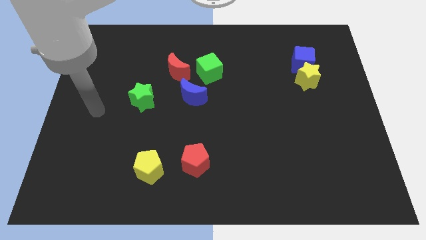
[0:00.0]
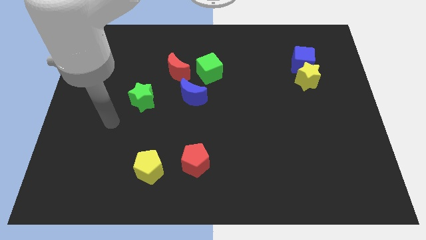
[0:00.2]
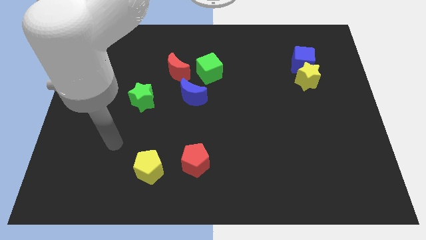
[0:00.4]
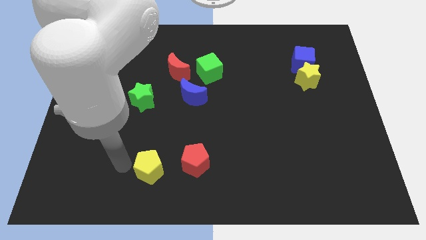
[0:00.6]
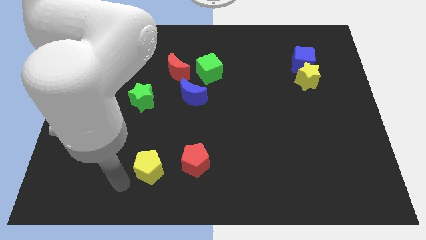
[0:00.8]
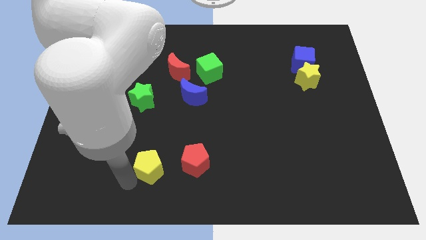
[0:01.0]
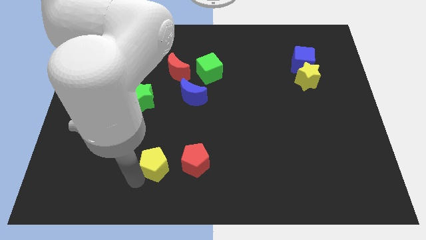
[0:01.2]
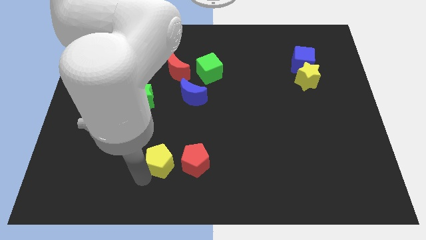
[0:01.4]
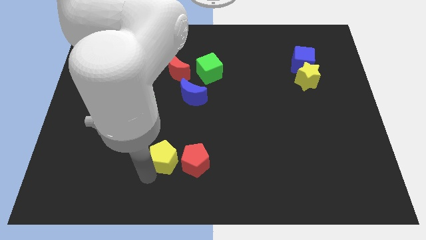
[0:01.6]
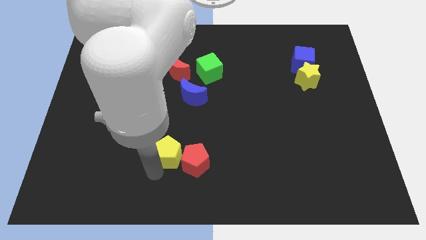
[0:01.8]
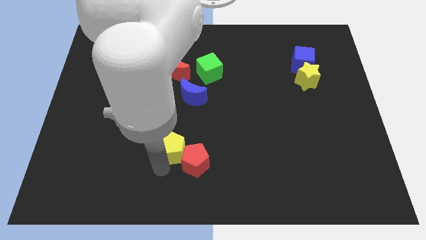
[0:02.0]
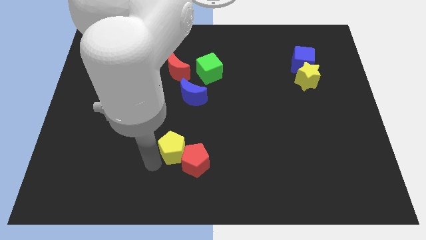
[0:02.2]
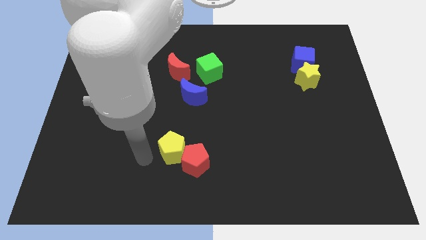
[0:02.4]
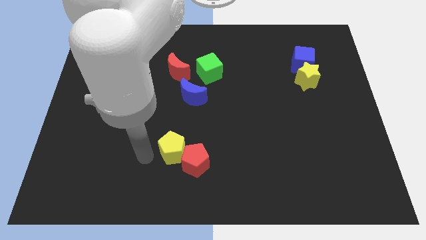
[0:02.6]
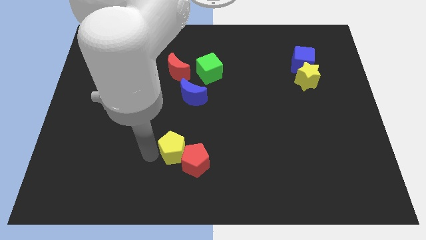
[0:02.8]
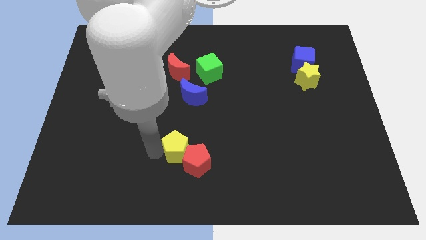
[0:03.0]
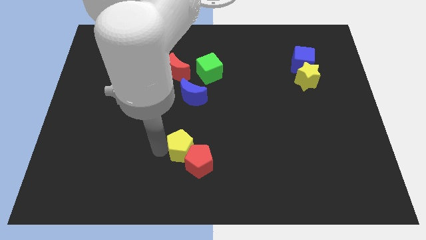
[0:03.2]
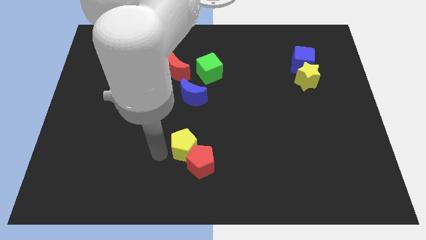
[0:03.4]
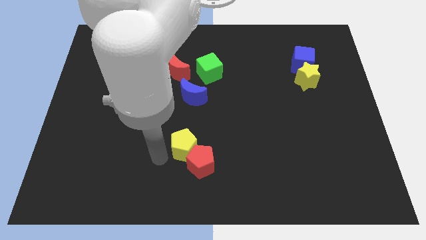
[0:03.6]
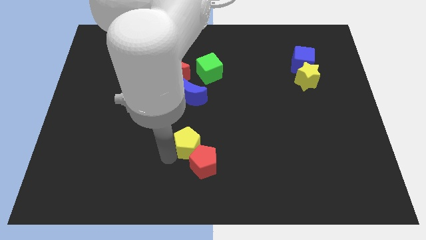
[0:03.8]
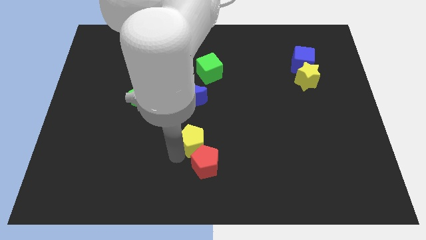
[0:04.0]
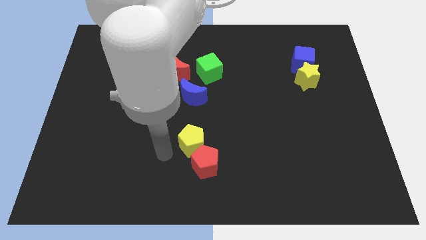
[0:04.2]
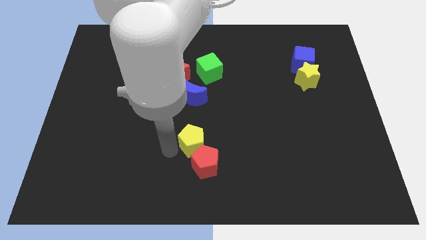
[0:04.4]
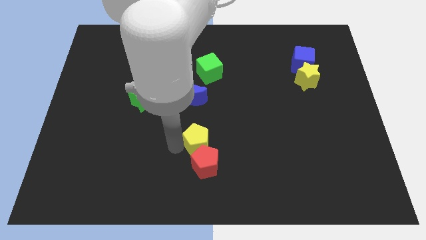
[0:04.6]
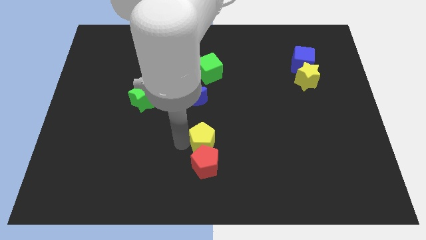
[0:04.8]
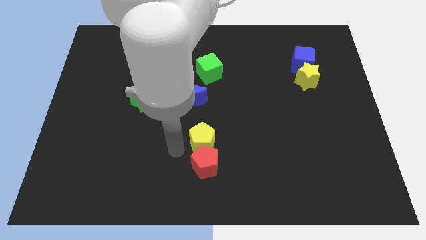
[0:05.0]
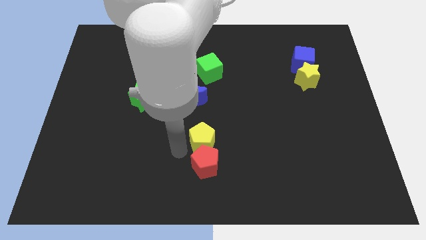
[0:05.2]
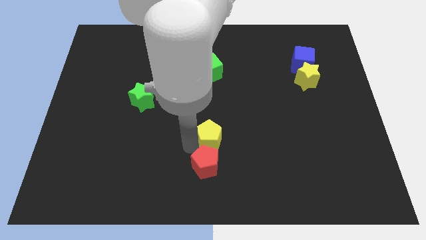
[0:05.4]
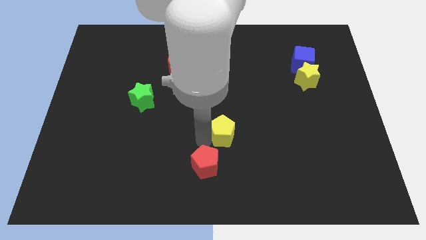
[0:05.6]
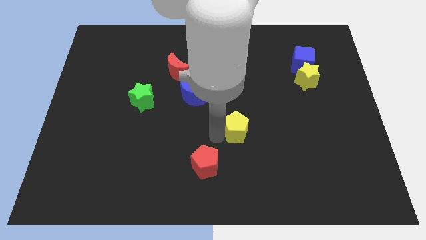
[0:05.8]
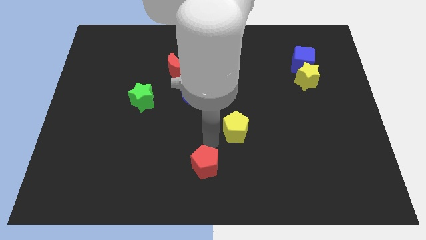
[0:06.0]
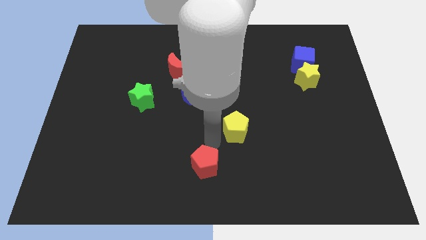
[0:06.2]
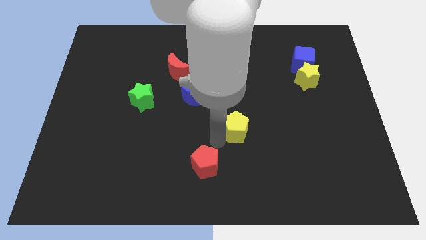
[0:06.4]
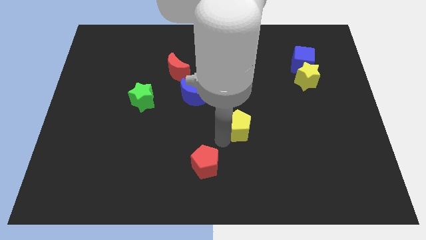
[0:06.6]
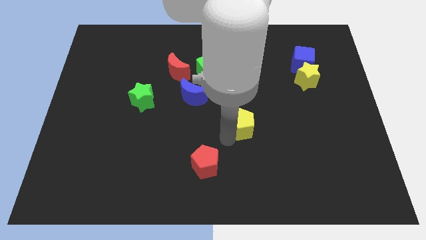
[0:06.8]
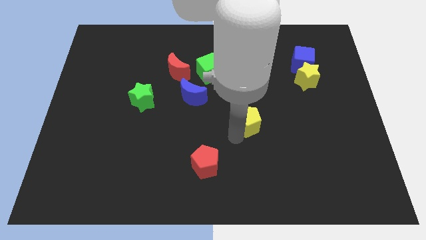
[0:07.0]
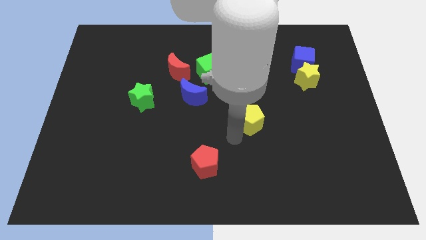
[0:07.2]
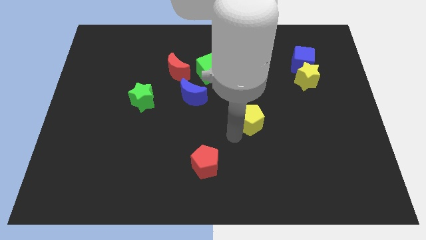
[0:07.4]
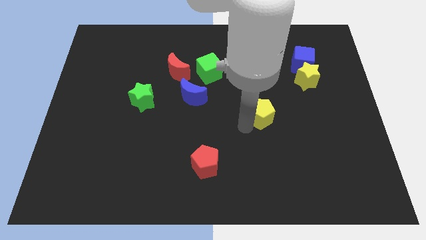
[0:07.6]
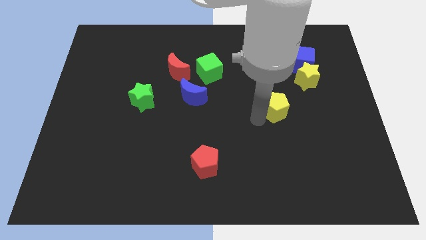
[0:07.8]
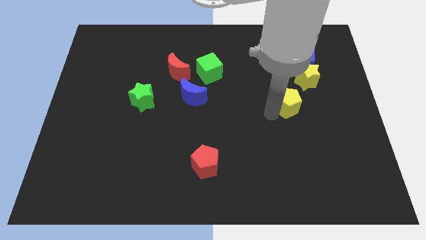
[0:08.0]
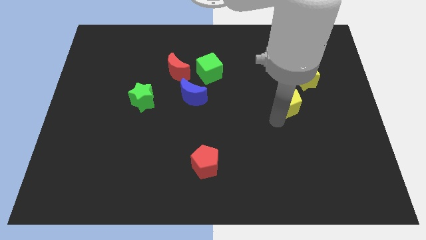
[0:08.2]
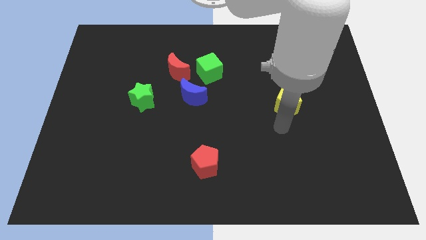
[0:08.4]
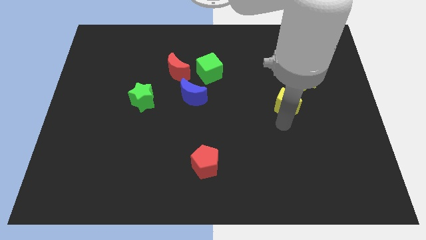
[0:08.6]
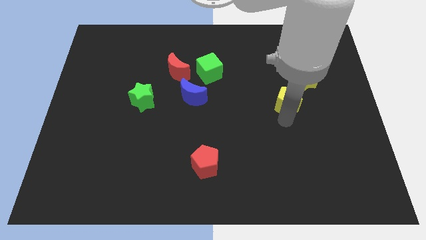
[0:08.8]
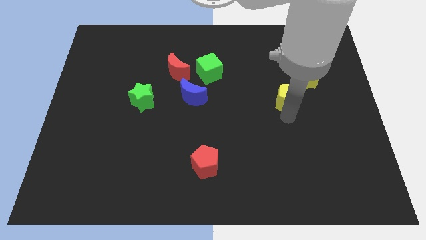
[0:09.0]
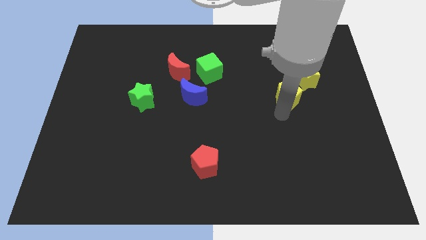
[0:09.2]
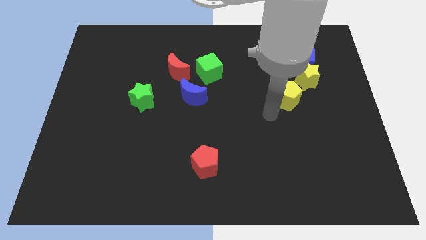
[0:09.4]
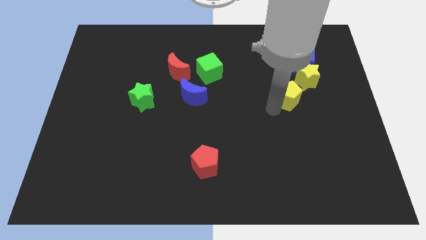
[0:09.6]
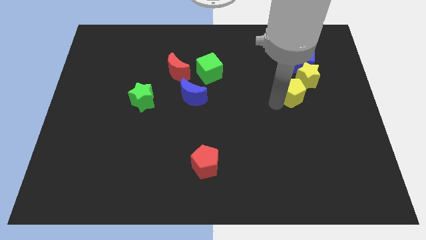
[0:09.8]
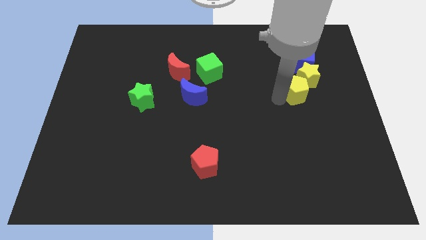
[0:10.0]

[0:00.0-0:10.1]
put the yellow pentagon next to the yellow star

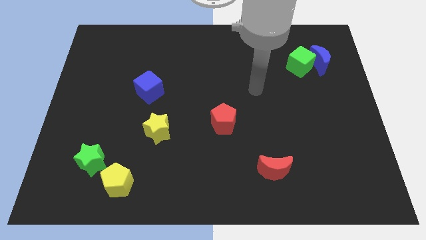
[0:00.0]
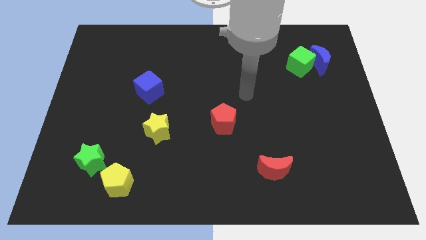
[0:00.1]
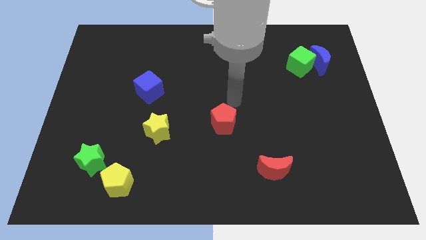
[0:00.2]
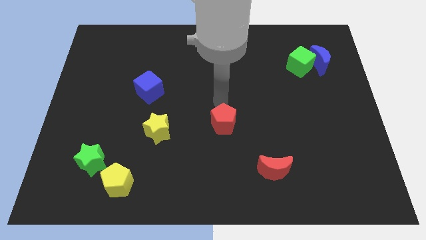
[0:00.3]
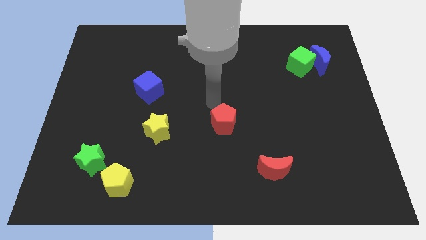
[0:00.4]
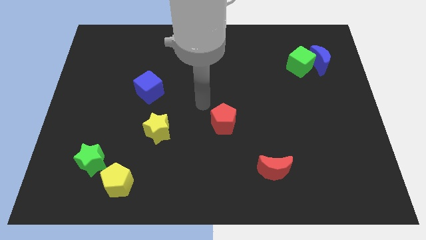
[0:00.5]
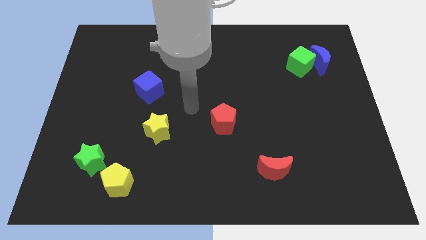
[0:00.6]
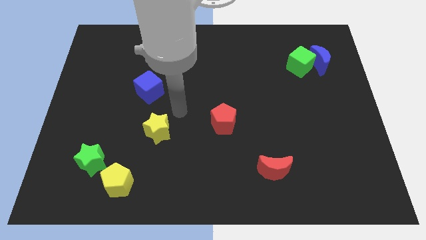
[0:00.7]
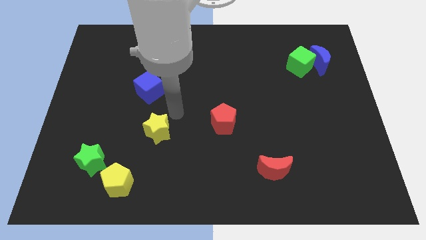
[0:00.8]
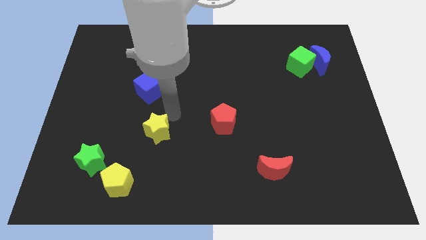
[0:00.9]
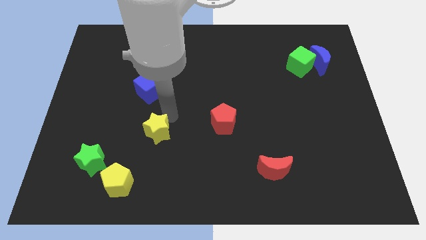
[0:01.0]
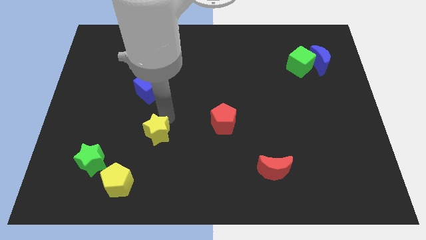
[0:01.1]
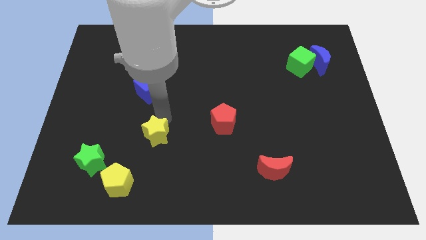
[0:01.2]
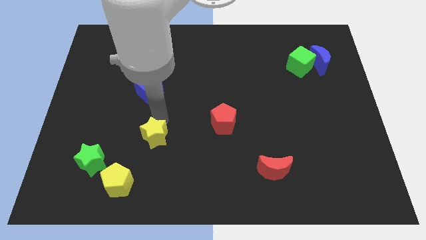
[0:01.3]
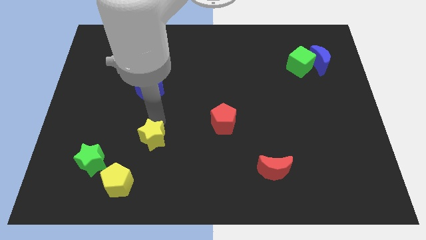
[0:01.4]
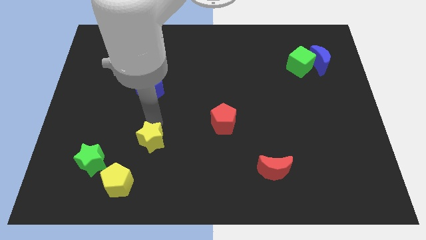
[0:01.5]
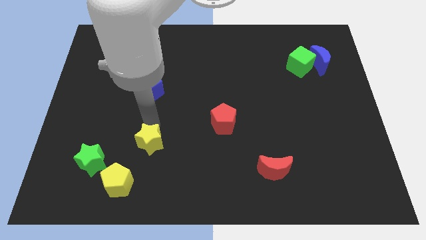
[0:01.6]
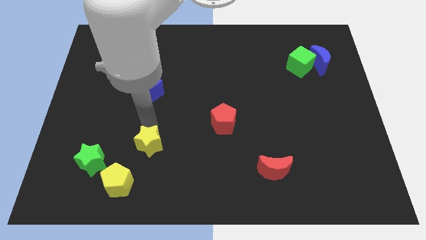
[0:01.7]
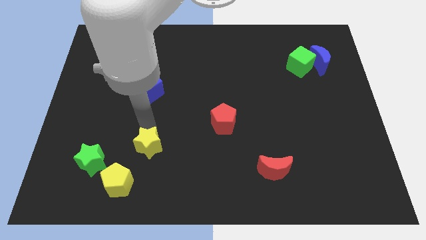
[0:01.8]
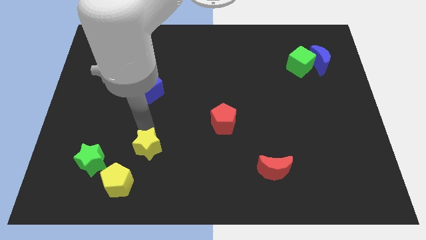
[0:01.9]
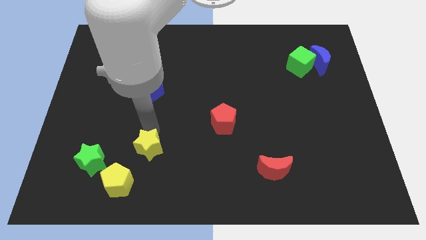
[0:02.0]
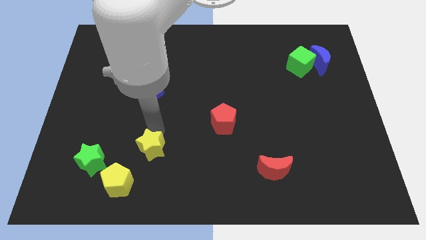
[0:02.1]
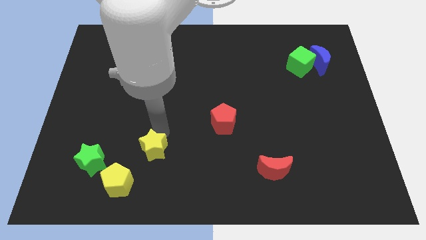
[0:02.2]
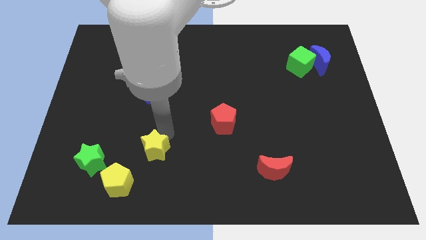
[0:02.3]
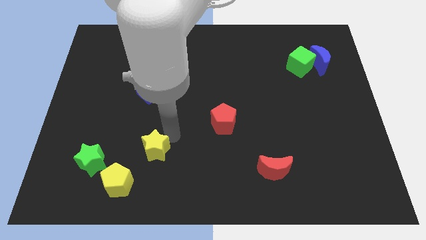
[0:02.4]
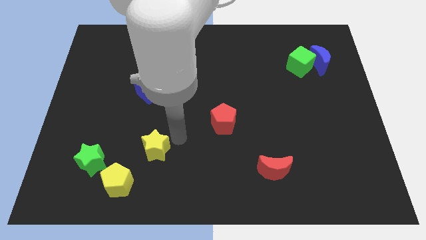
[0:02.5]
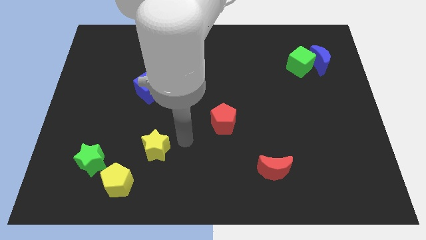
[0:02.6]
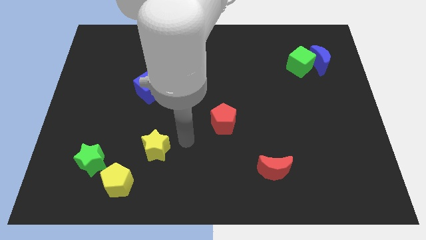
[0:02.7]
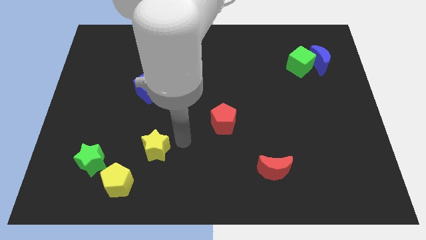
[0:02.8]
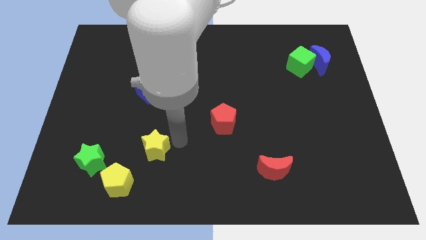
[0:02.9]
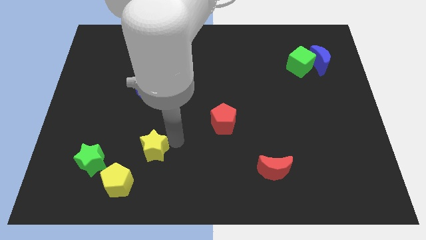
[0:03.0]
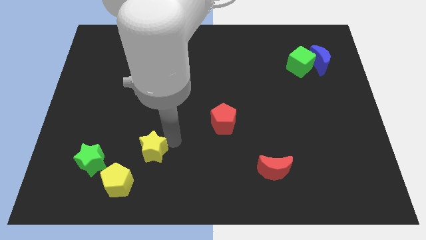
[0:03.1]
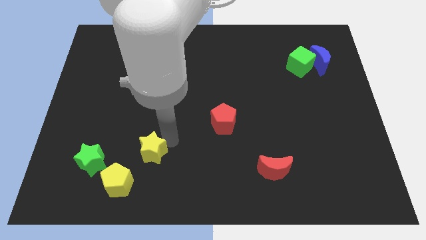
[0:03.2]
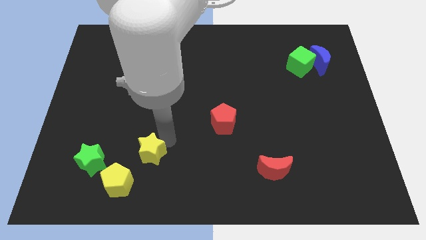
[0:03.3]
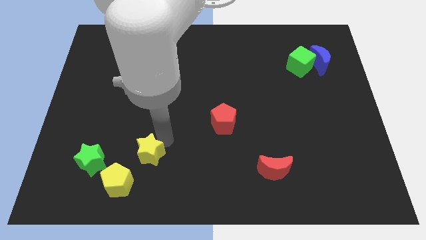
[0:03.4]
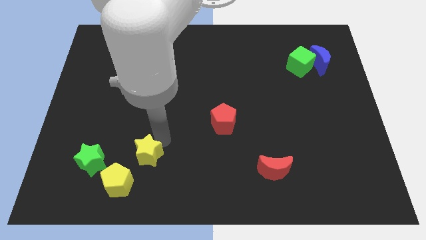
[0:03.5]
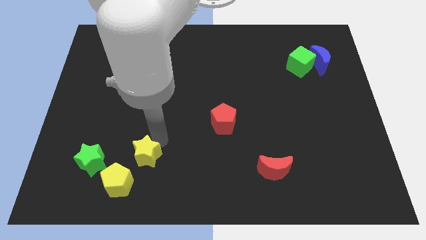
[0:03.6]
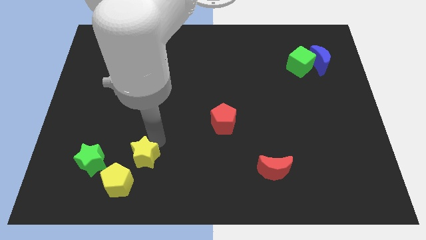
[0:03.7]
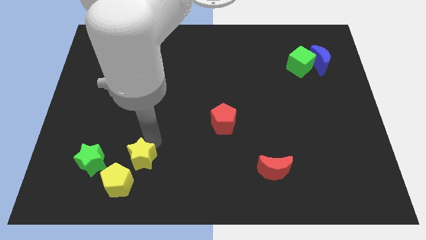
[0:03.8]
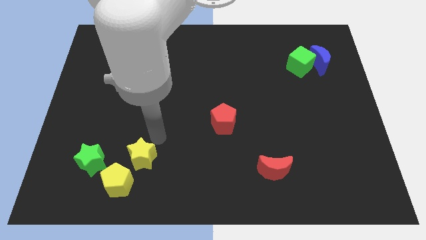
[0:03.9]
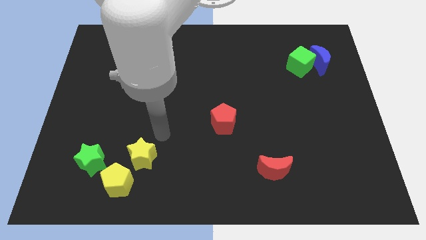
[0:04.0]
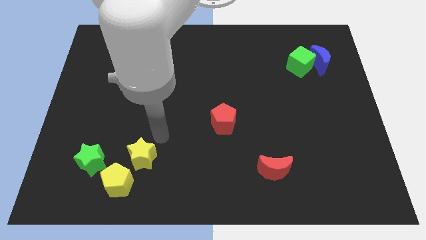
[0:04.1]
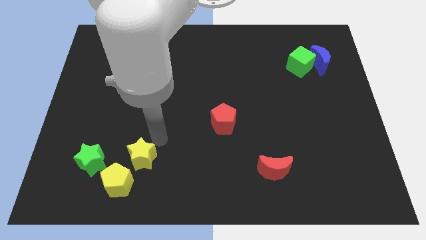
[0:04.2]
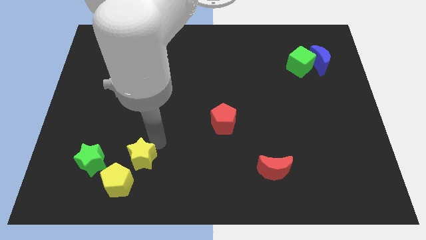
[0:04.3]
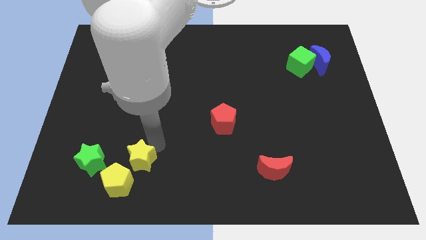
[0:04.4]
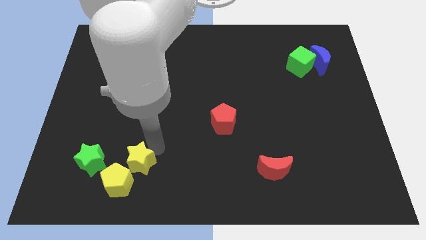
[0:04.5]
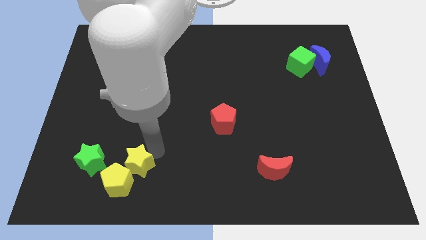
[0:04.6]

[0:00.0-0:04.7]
move the yellow star towards the yellow pentagon
